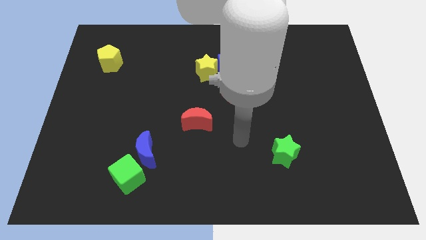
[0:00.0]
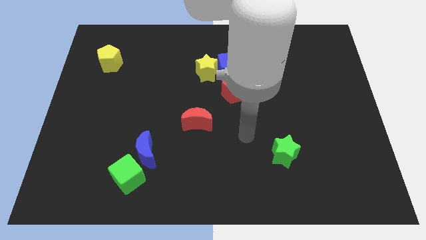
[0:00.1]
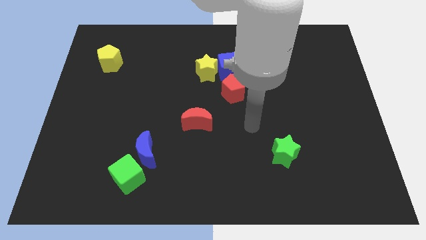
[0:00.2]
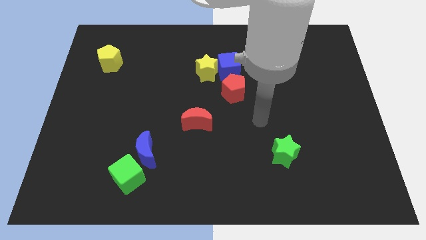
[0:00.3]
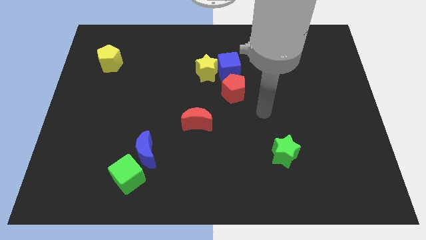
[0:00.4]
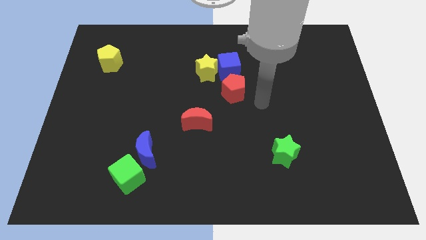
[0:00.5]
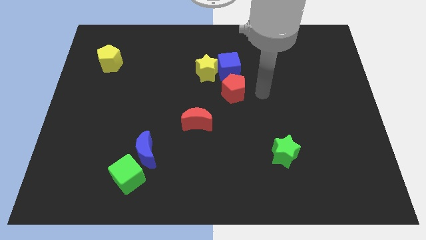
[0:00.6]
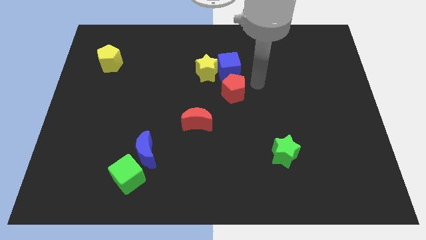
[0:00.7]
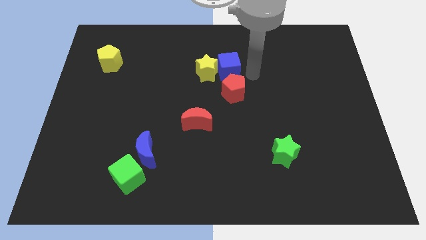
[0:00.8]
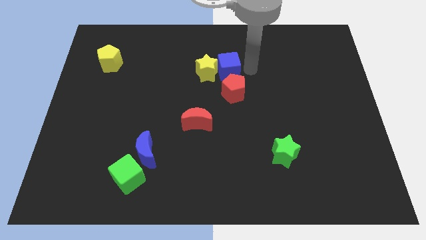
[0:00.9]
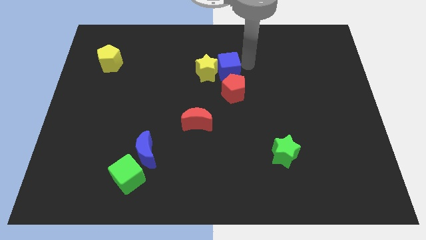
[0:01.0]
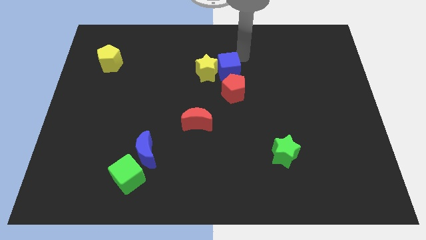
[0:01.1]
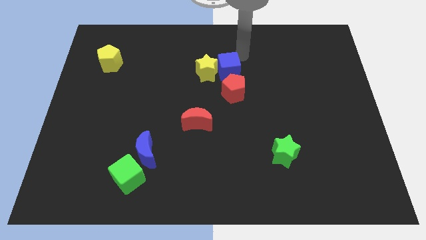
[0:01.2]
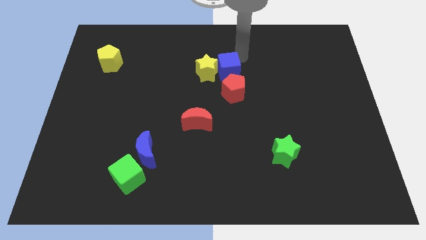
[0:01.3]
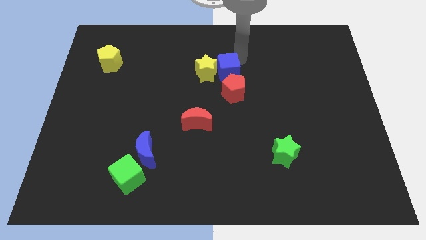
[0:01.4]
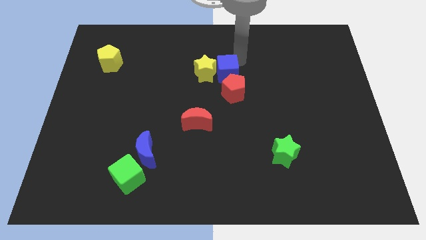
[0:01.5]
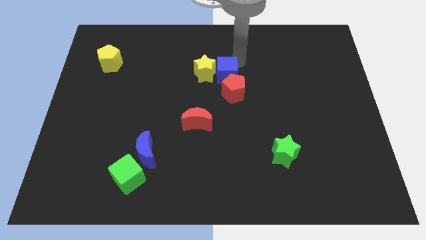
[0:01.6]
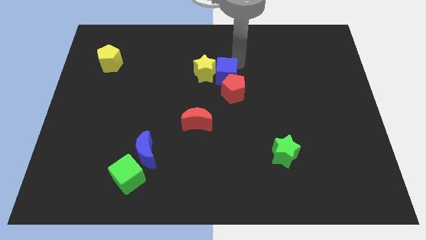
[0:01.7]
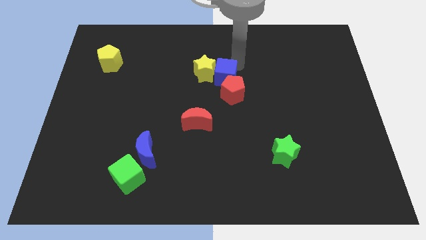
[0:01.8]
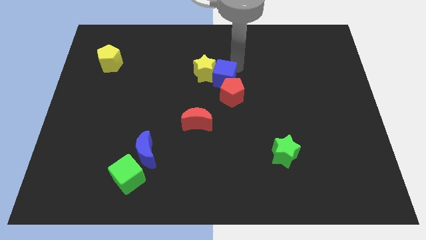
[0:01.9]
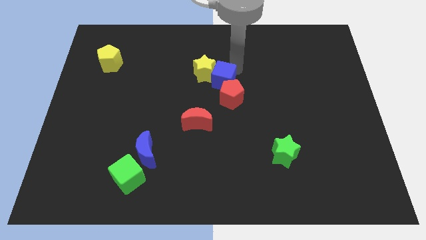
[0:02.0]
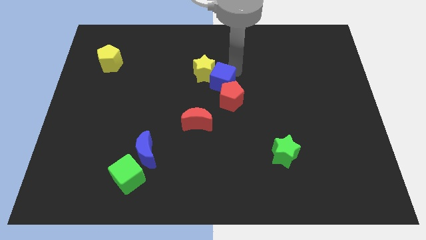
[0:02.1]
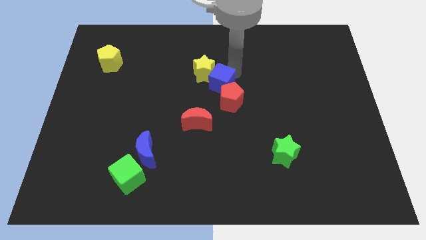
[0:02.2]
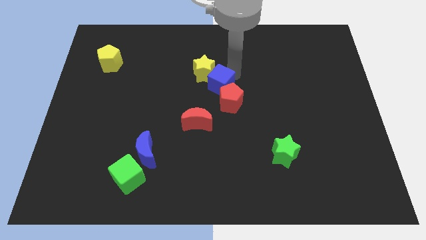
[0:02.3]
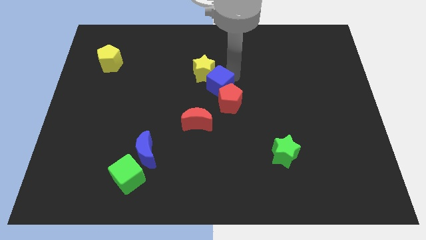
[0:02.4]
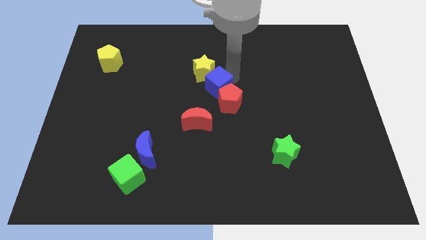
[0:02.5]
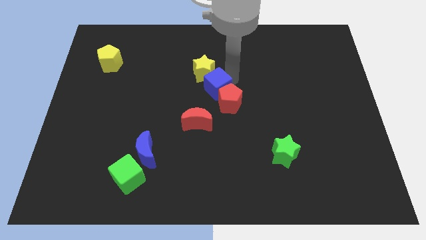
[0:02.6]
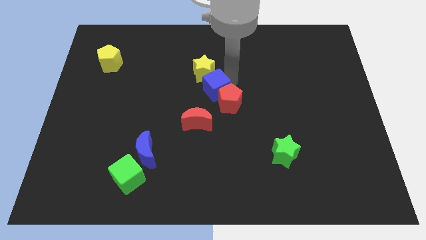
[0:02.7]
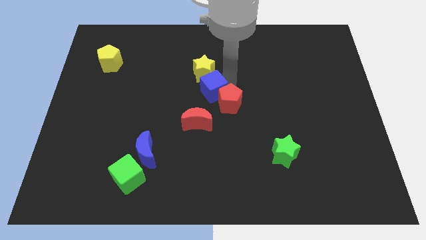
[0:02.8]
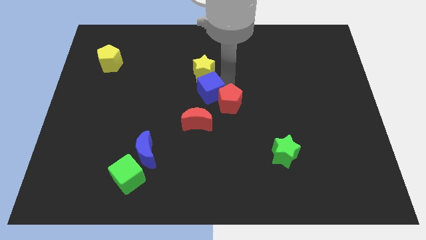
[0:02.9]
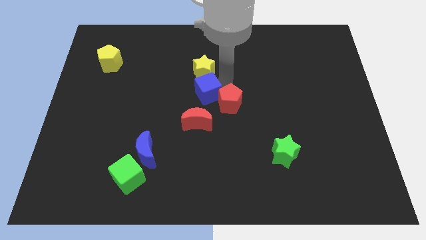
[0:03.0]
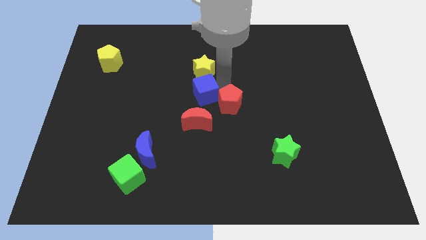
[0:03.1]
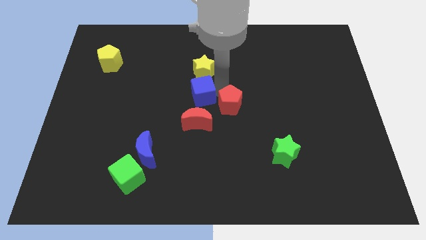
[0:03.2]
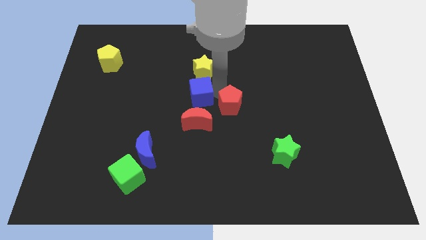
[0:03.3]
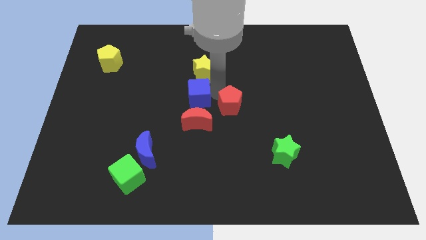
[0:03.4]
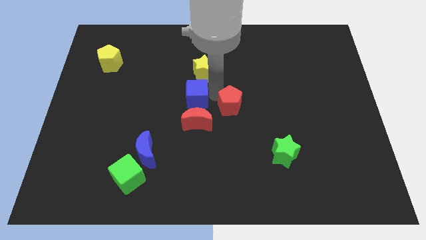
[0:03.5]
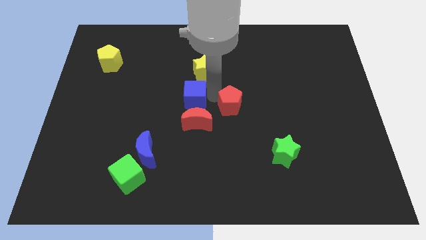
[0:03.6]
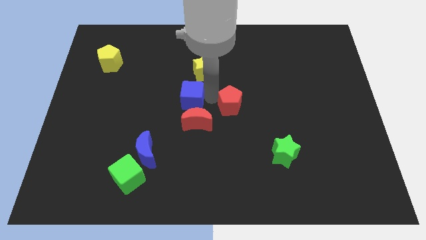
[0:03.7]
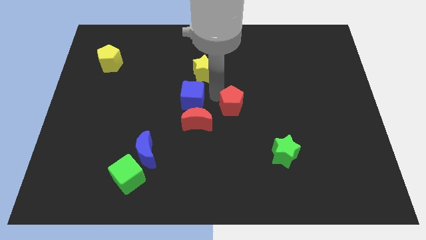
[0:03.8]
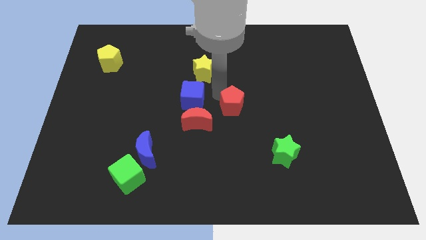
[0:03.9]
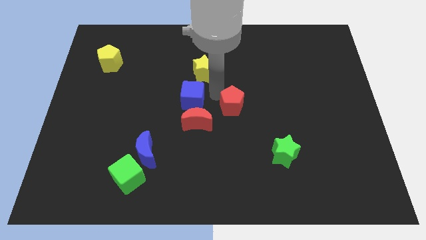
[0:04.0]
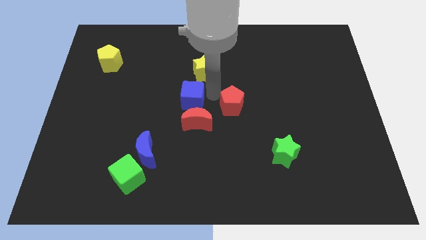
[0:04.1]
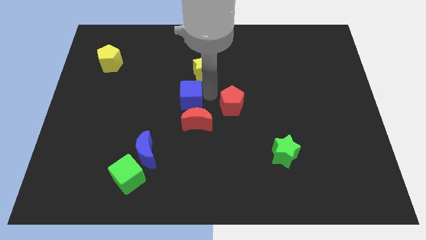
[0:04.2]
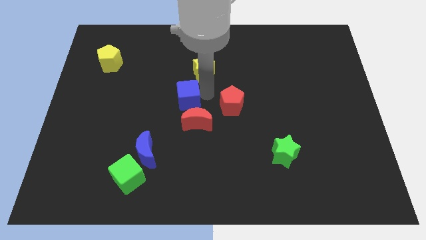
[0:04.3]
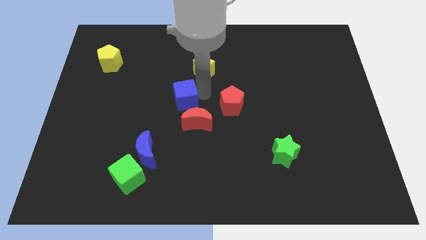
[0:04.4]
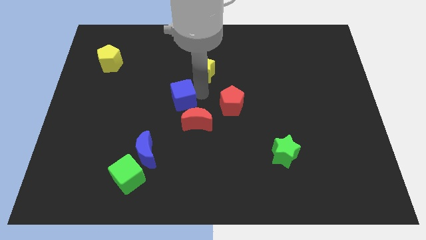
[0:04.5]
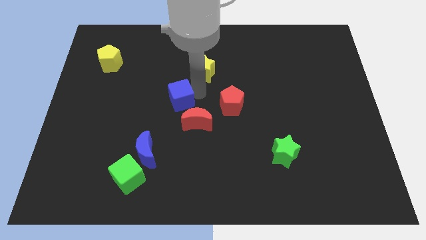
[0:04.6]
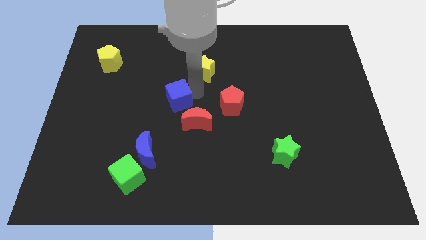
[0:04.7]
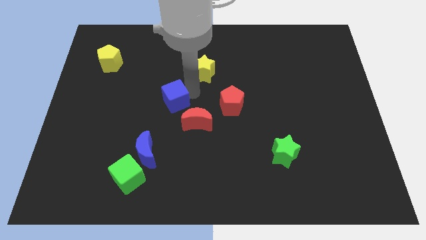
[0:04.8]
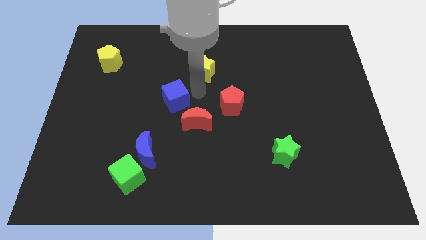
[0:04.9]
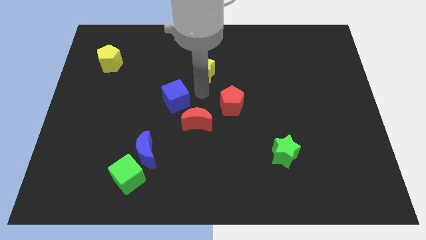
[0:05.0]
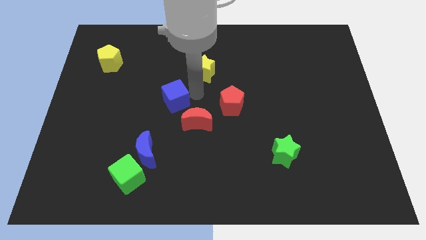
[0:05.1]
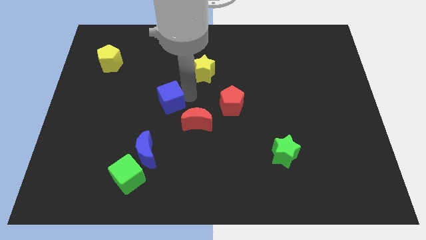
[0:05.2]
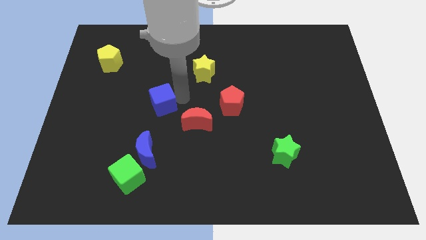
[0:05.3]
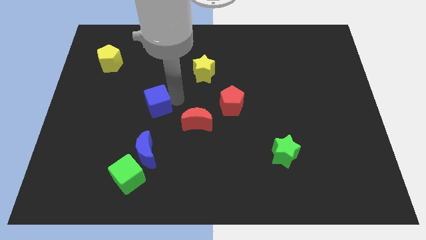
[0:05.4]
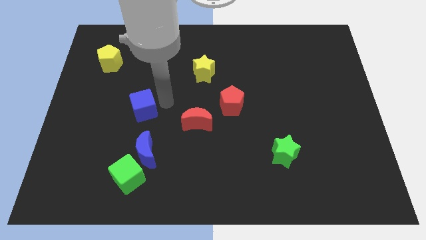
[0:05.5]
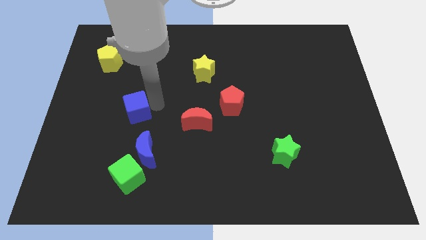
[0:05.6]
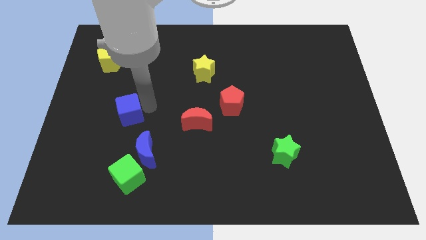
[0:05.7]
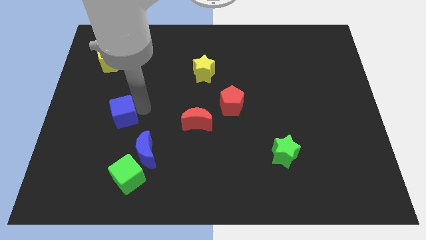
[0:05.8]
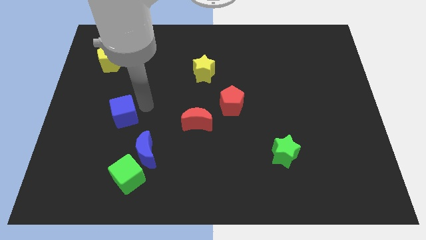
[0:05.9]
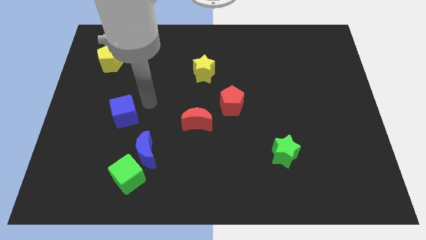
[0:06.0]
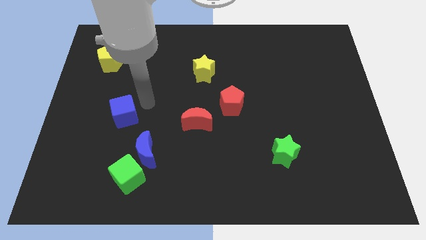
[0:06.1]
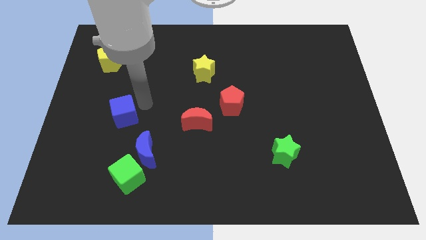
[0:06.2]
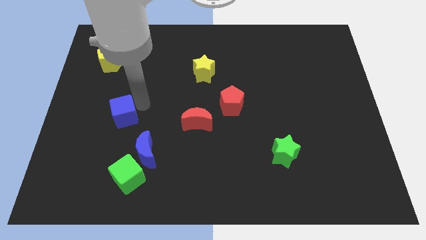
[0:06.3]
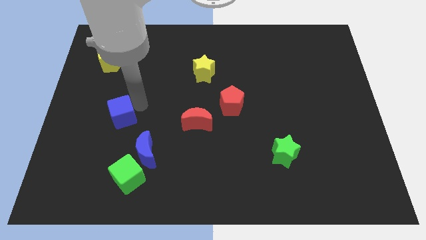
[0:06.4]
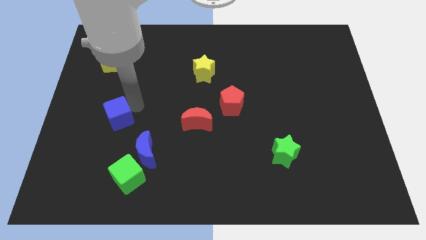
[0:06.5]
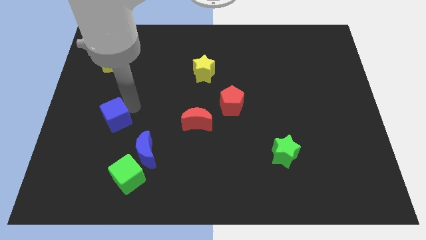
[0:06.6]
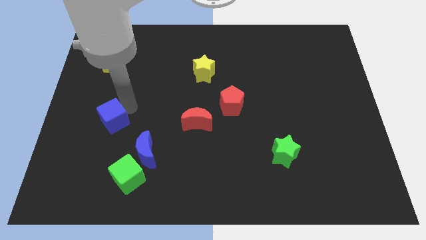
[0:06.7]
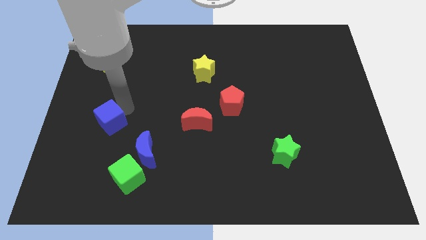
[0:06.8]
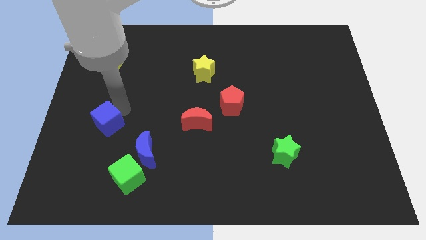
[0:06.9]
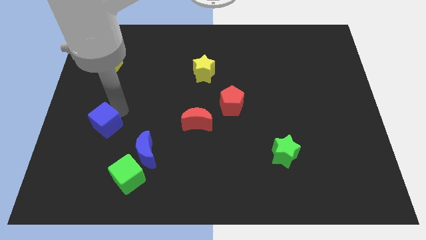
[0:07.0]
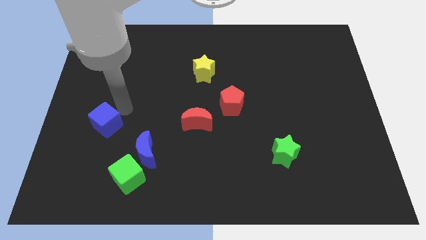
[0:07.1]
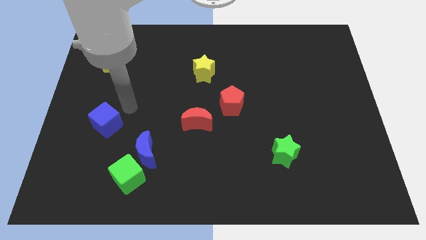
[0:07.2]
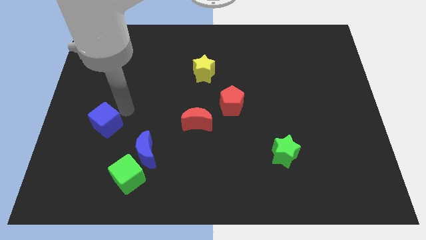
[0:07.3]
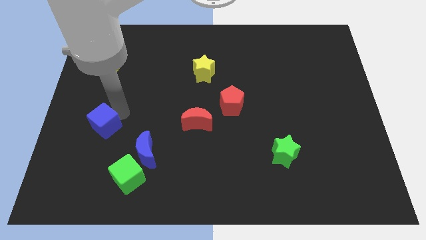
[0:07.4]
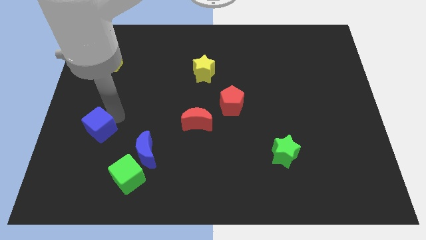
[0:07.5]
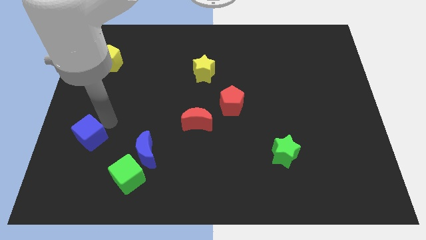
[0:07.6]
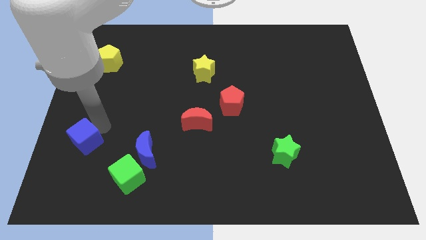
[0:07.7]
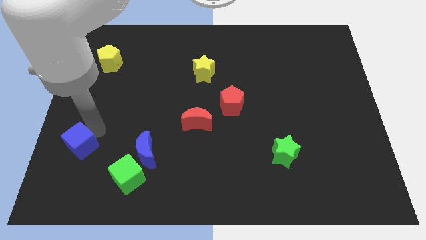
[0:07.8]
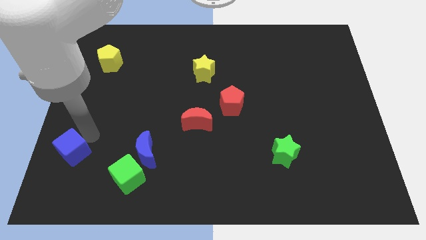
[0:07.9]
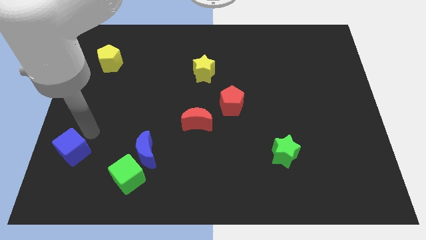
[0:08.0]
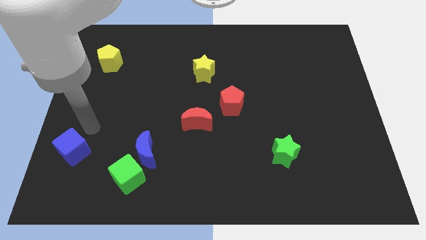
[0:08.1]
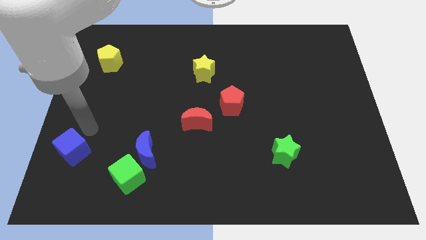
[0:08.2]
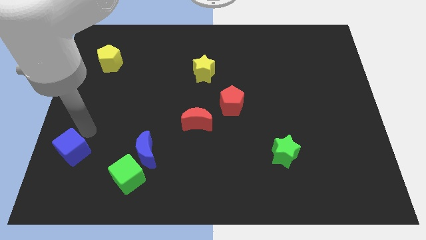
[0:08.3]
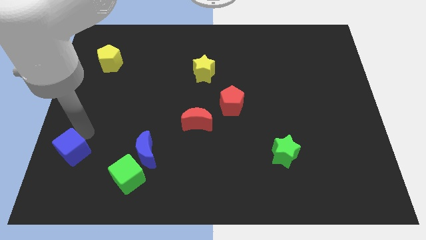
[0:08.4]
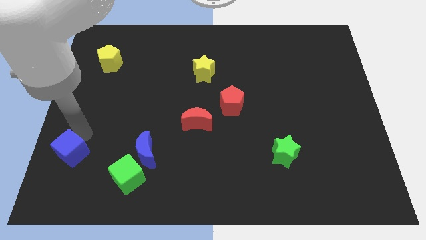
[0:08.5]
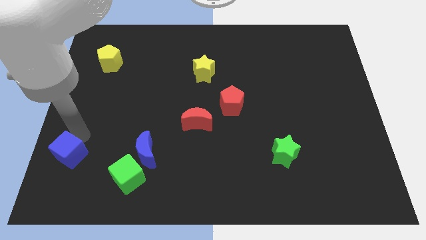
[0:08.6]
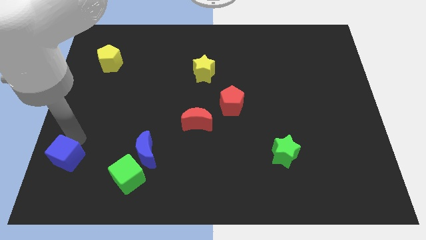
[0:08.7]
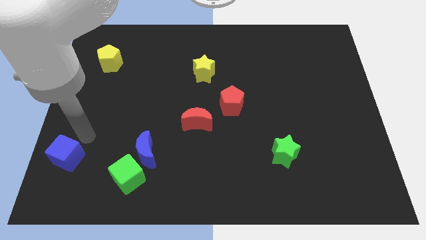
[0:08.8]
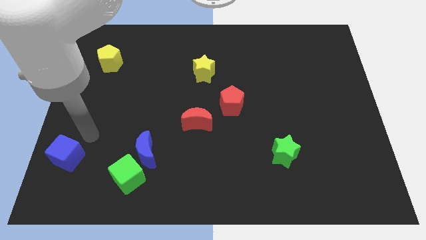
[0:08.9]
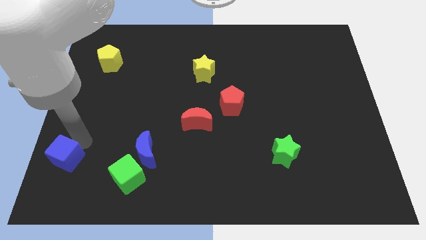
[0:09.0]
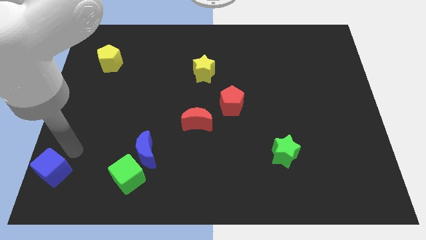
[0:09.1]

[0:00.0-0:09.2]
push the blue cube to the bottom left of the board
